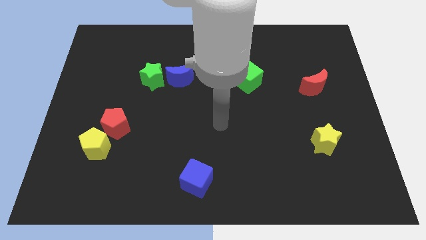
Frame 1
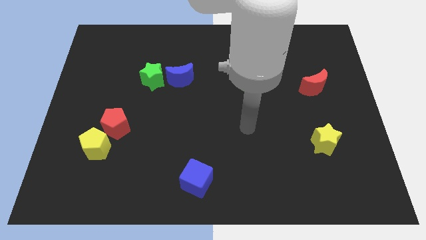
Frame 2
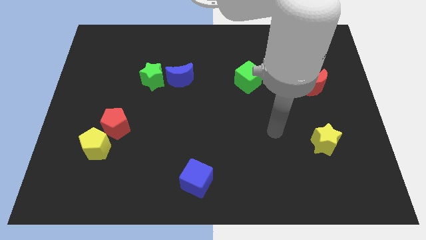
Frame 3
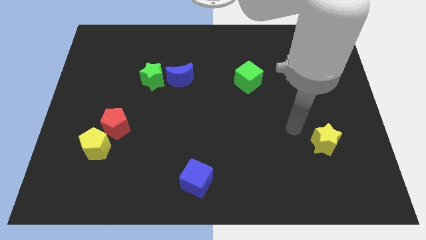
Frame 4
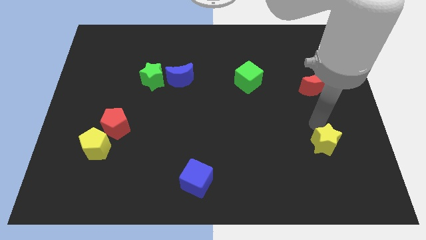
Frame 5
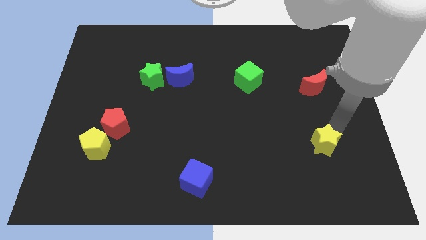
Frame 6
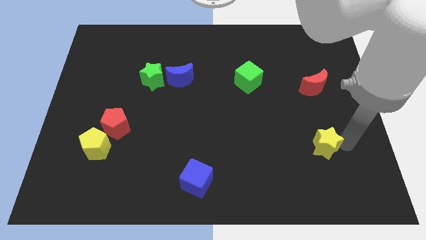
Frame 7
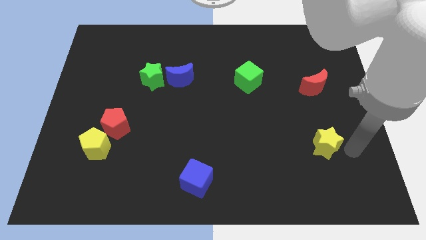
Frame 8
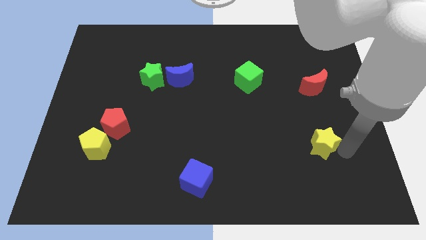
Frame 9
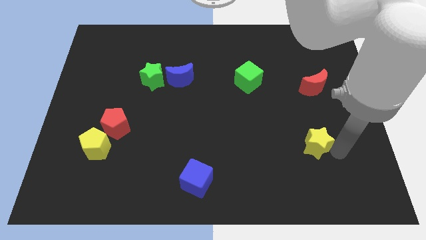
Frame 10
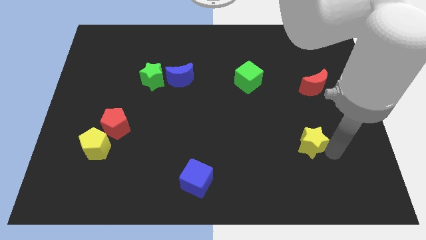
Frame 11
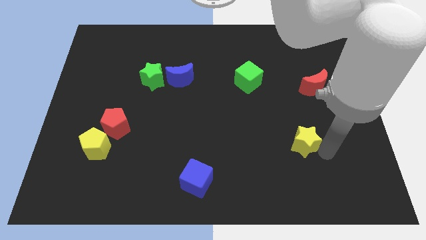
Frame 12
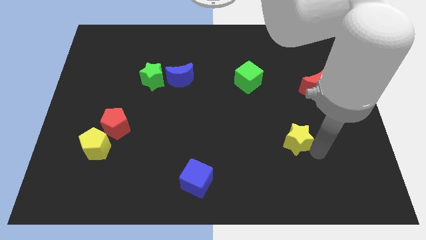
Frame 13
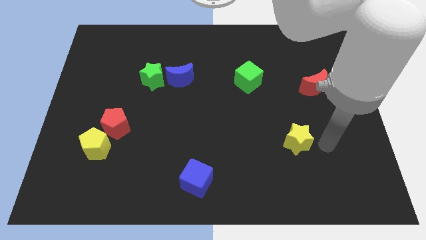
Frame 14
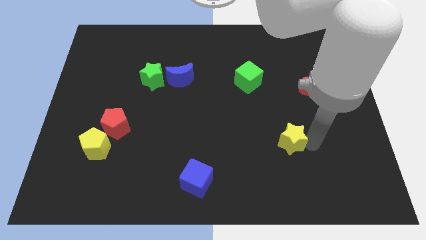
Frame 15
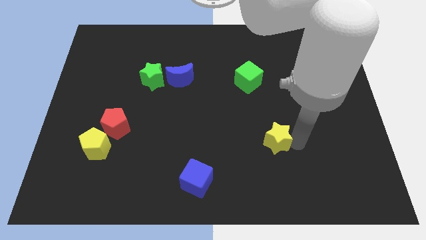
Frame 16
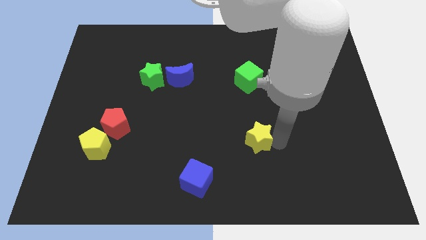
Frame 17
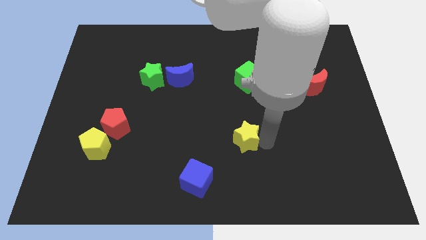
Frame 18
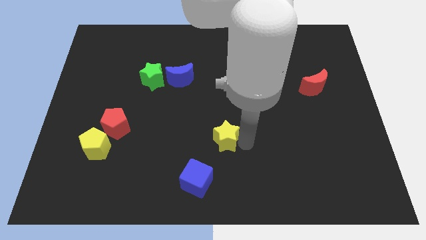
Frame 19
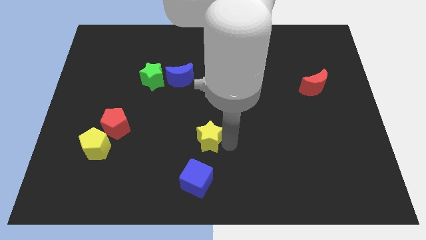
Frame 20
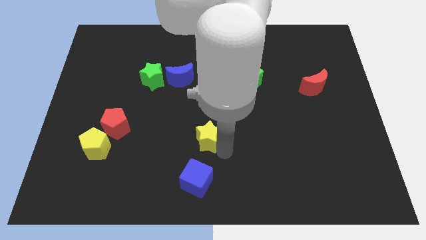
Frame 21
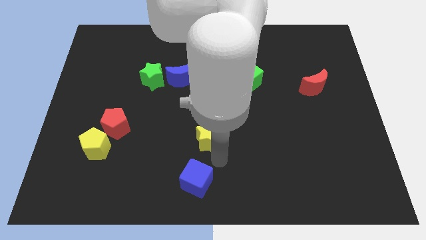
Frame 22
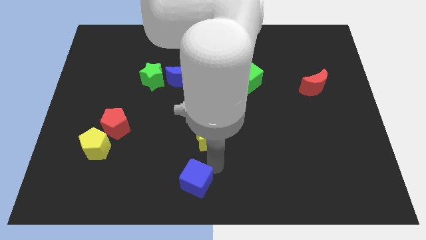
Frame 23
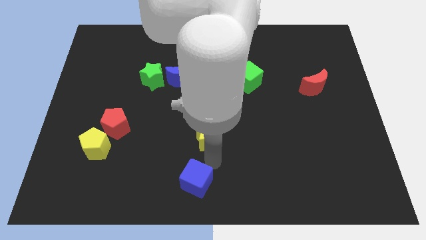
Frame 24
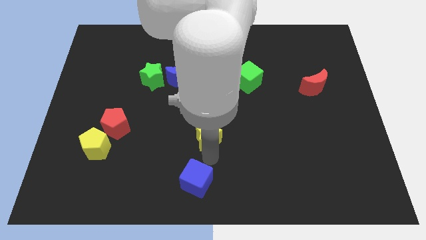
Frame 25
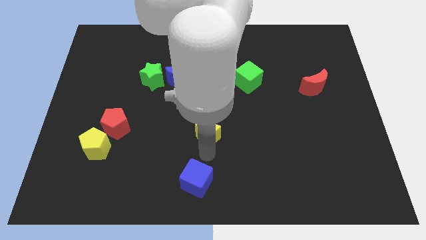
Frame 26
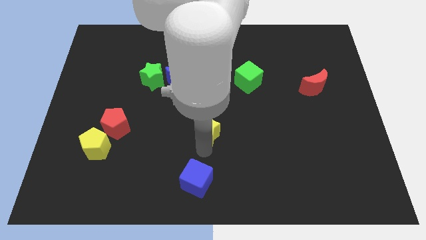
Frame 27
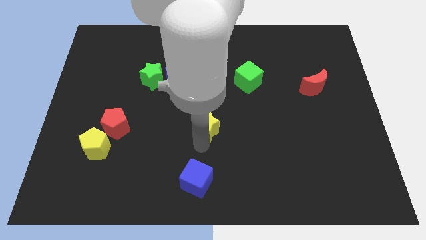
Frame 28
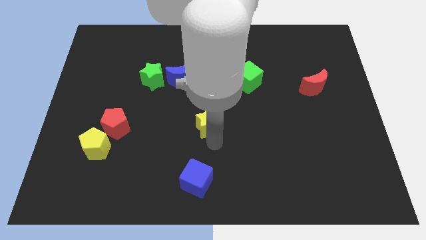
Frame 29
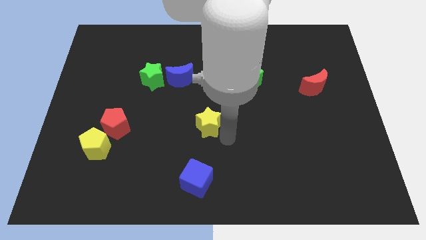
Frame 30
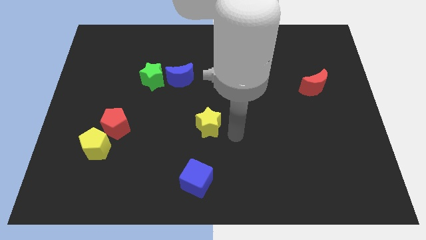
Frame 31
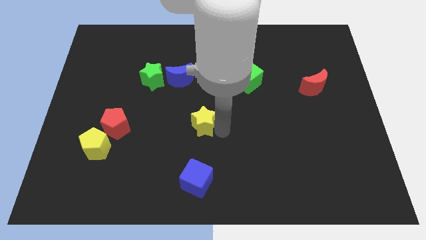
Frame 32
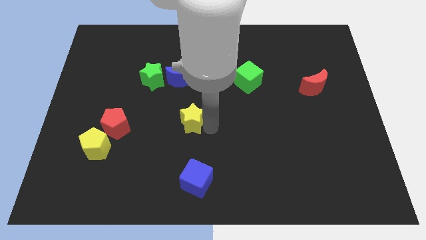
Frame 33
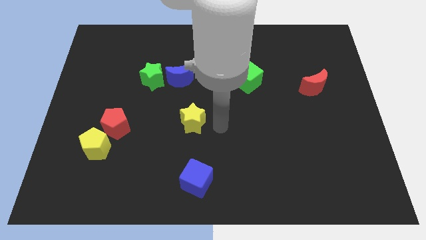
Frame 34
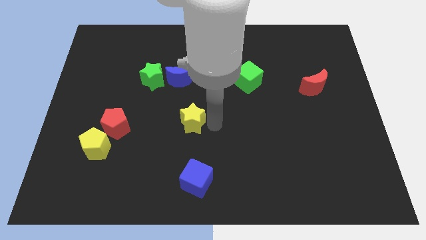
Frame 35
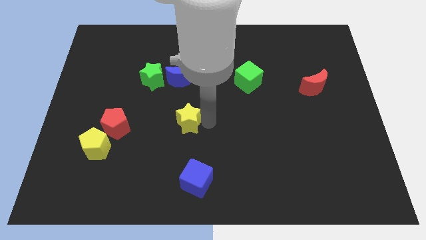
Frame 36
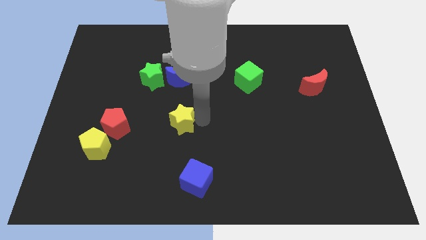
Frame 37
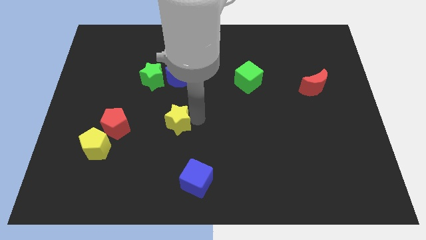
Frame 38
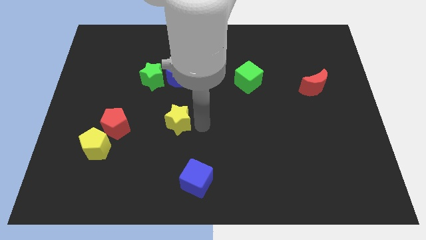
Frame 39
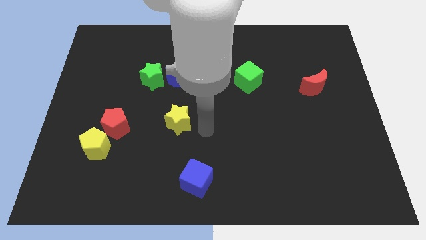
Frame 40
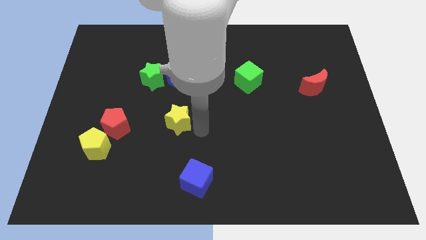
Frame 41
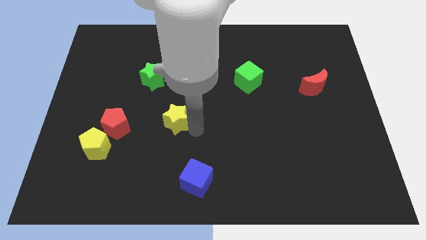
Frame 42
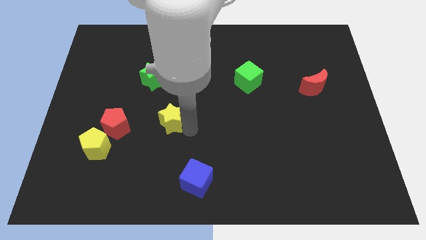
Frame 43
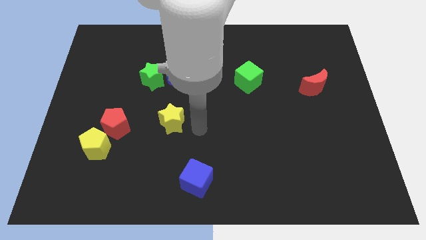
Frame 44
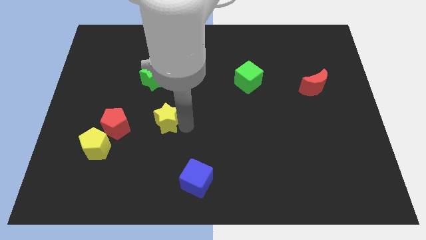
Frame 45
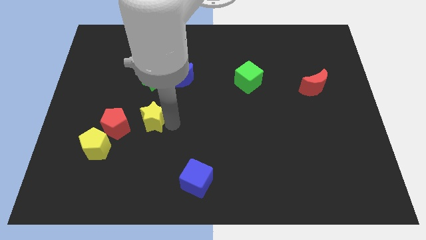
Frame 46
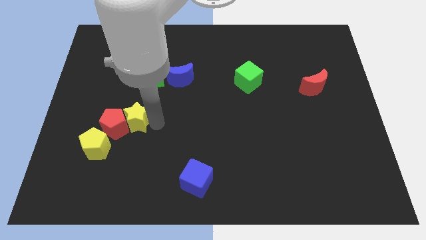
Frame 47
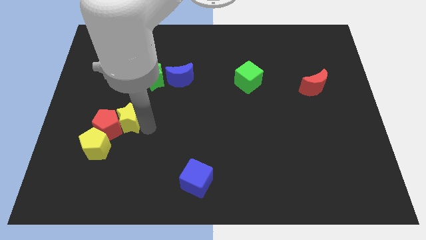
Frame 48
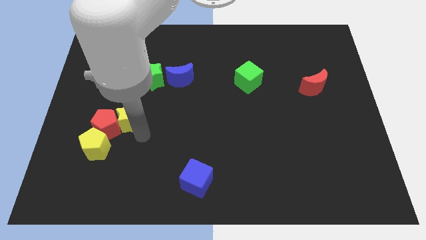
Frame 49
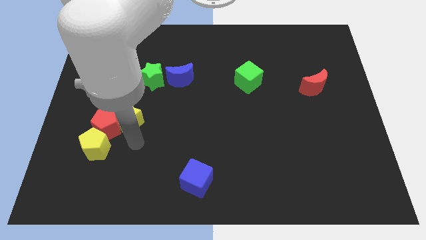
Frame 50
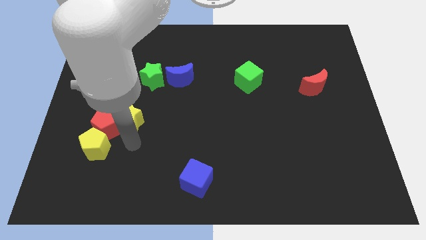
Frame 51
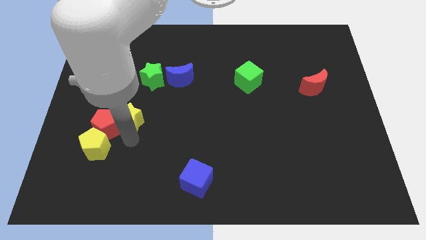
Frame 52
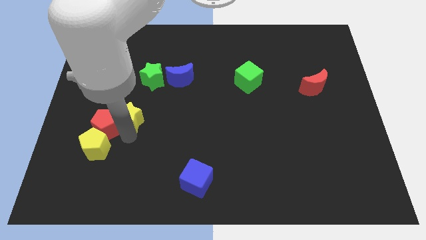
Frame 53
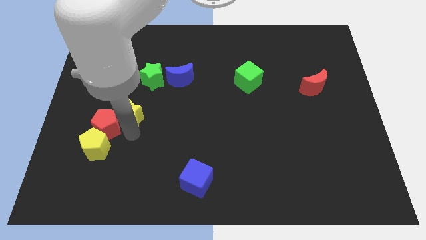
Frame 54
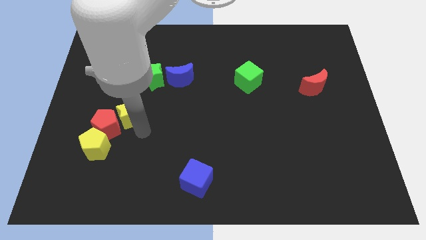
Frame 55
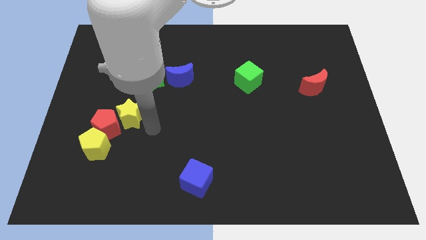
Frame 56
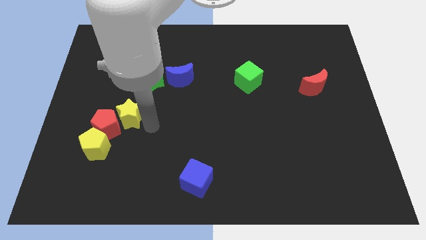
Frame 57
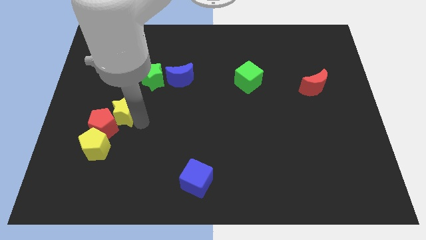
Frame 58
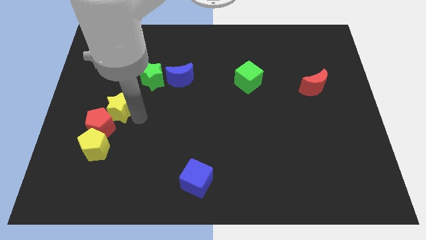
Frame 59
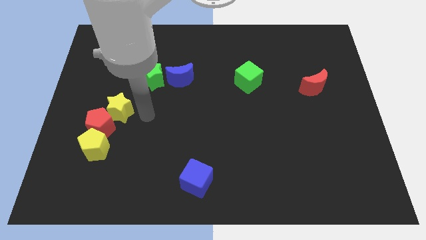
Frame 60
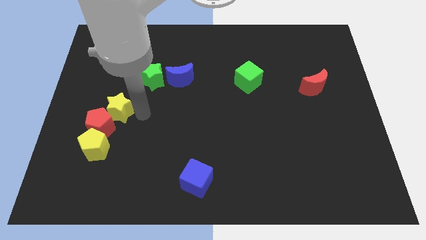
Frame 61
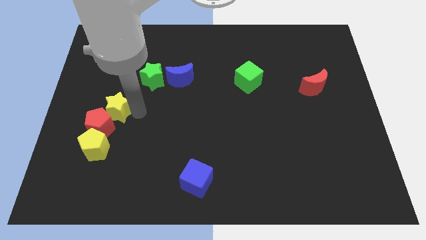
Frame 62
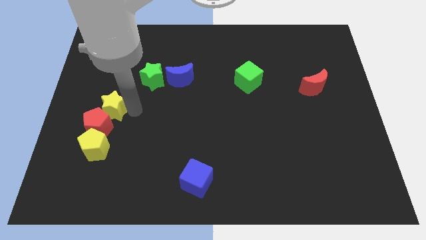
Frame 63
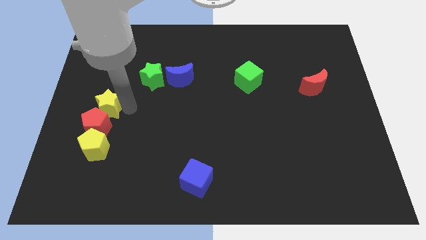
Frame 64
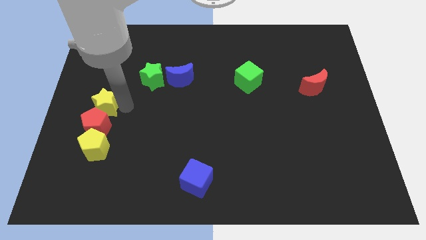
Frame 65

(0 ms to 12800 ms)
move the yellow star to the center left

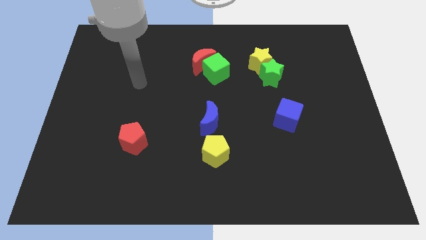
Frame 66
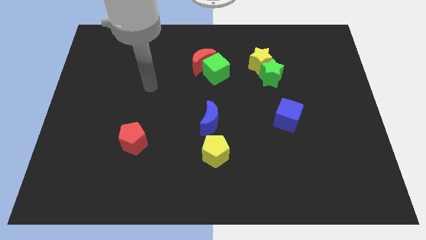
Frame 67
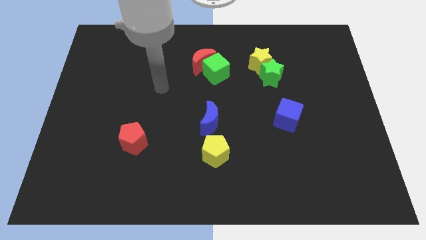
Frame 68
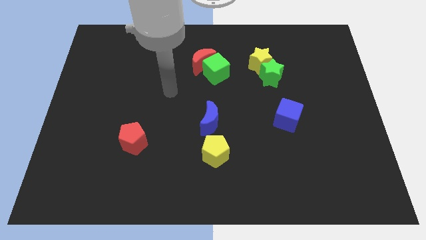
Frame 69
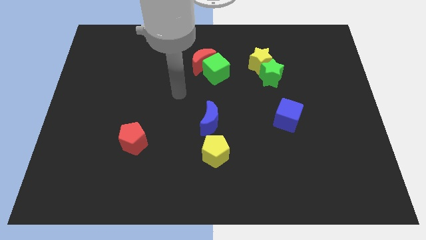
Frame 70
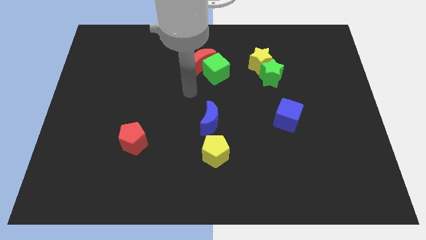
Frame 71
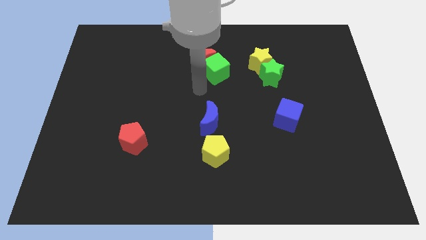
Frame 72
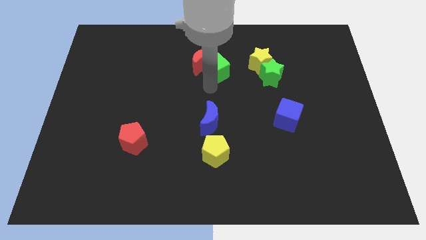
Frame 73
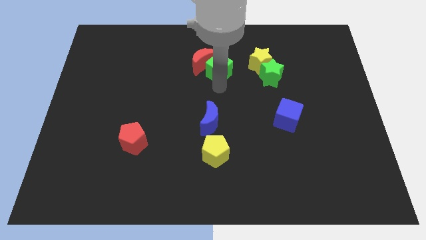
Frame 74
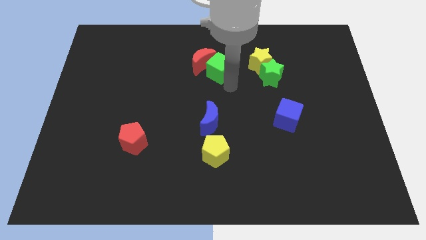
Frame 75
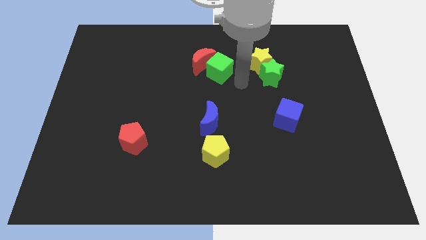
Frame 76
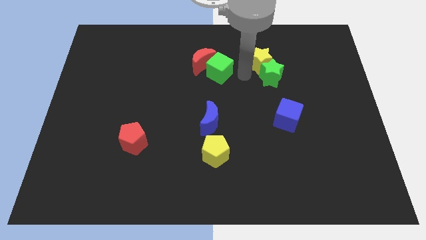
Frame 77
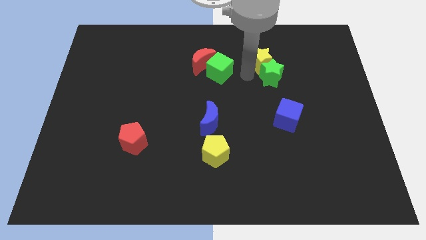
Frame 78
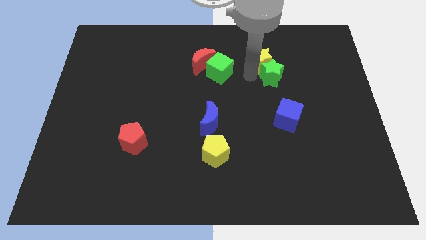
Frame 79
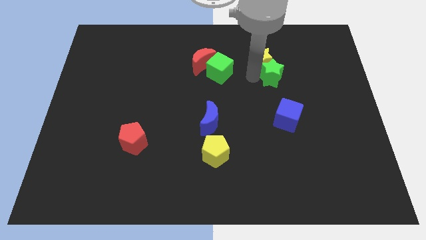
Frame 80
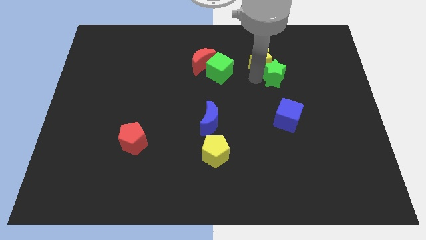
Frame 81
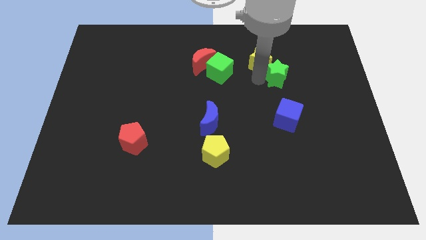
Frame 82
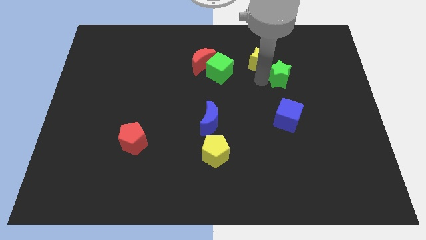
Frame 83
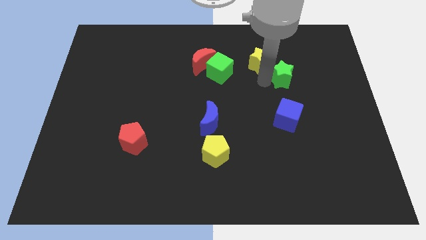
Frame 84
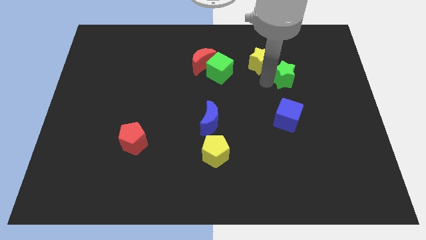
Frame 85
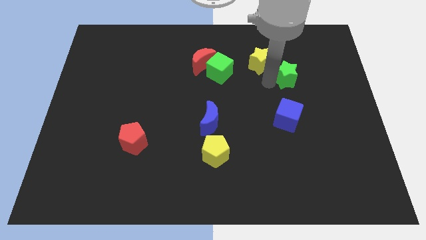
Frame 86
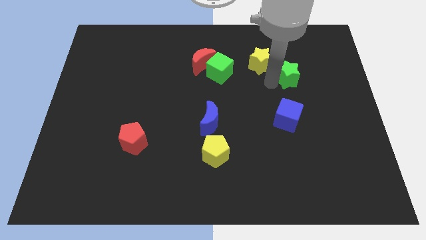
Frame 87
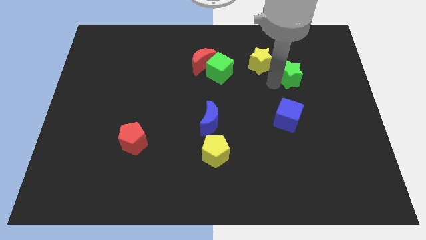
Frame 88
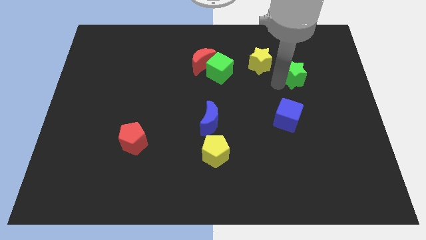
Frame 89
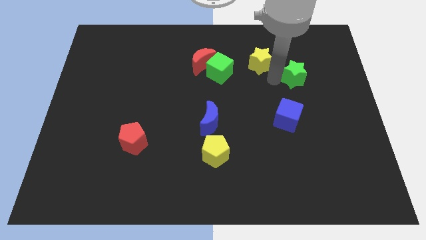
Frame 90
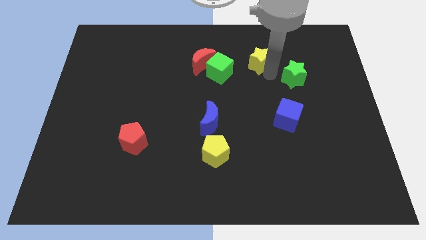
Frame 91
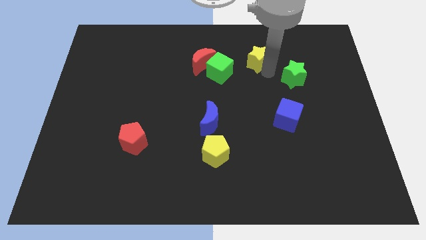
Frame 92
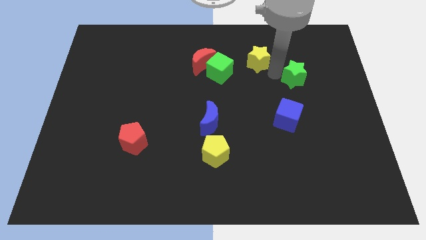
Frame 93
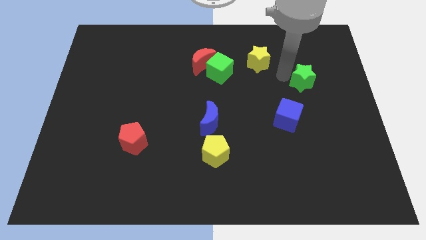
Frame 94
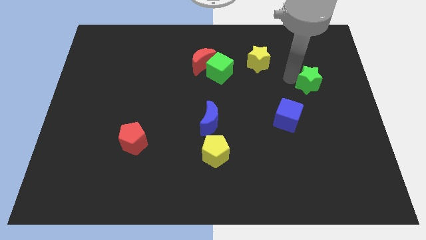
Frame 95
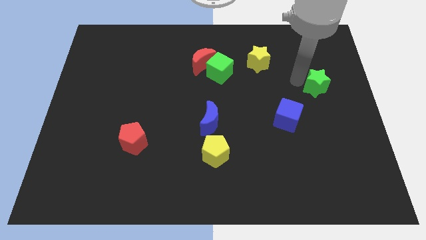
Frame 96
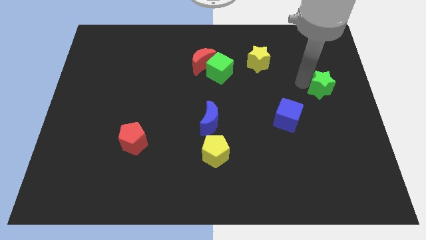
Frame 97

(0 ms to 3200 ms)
slide the green star to the right side
